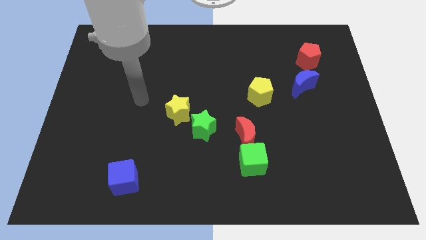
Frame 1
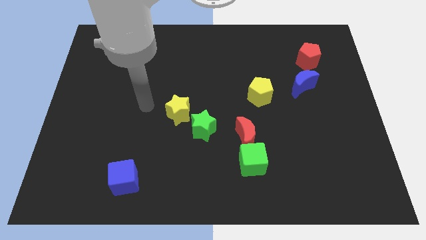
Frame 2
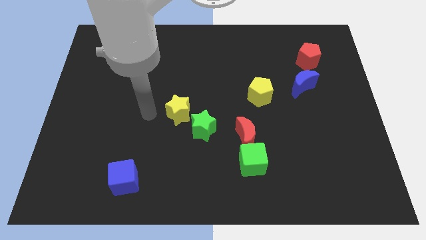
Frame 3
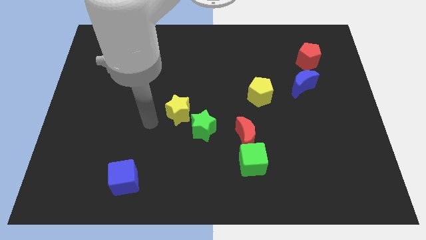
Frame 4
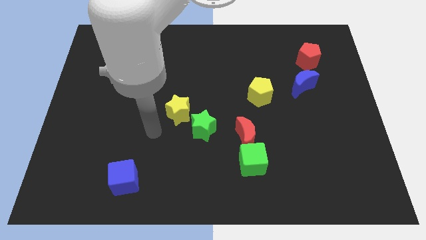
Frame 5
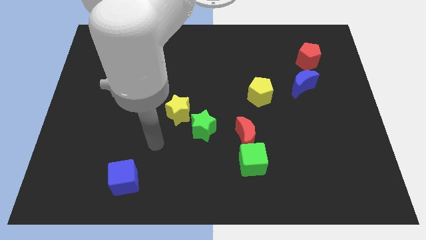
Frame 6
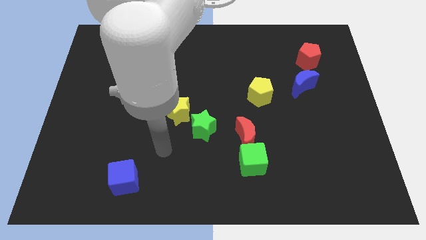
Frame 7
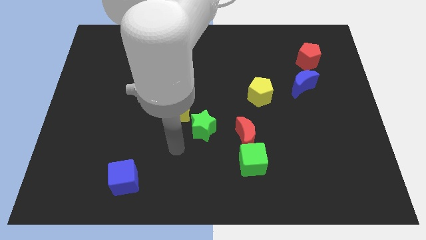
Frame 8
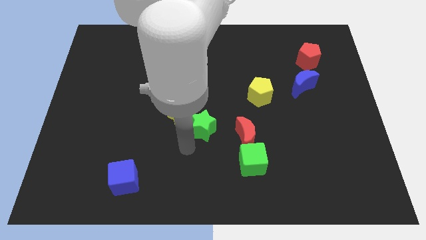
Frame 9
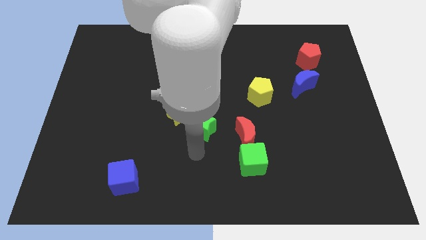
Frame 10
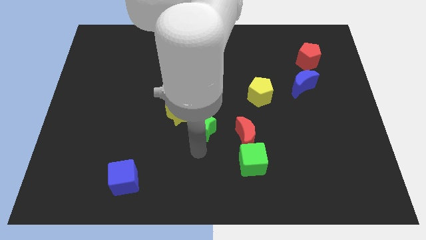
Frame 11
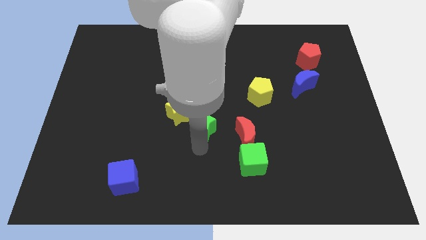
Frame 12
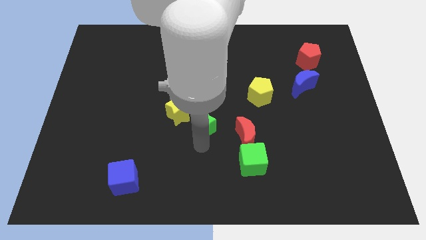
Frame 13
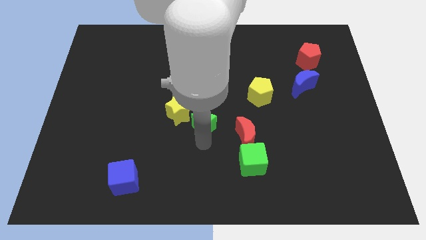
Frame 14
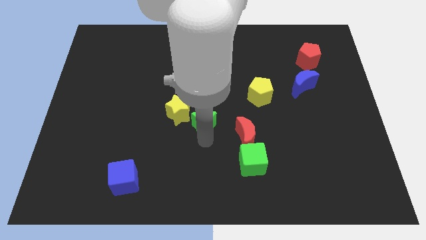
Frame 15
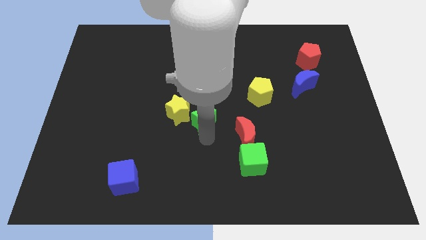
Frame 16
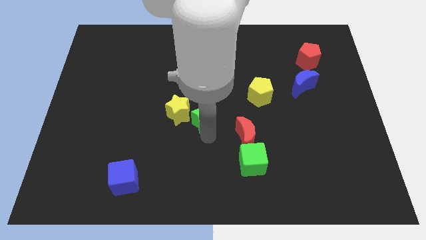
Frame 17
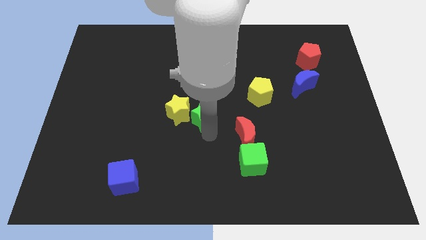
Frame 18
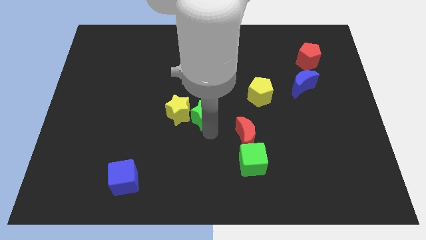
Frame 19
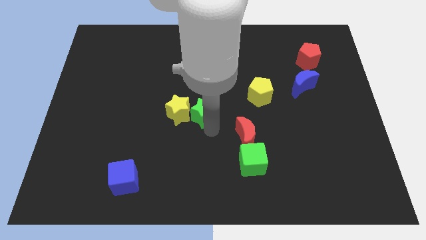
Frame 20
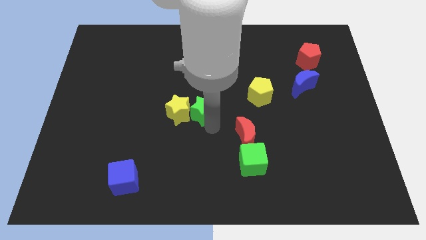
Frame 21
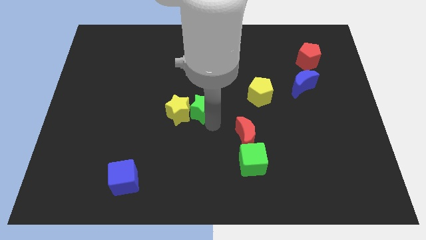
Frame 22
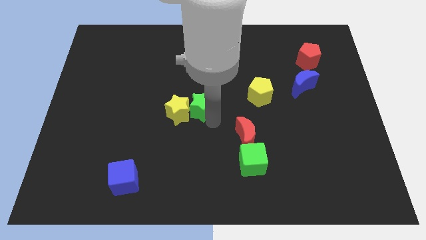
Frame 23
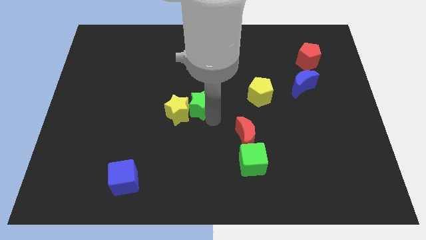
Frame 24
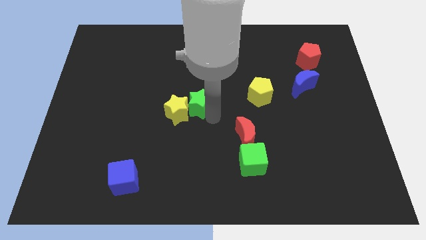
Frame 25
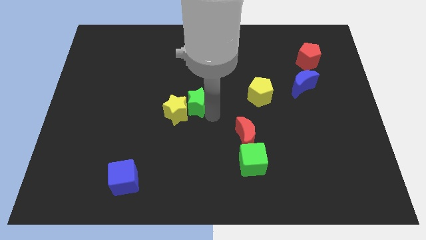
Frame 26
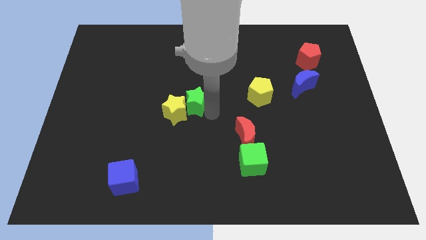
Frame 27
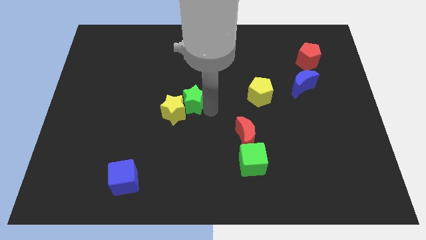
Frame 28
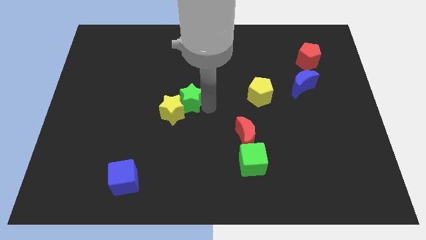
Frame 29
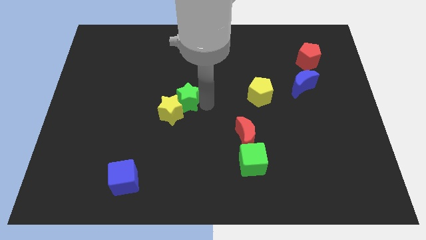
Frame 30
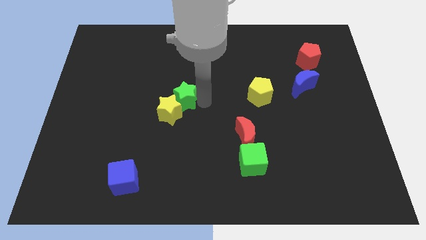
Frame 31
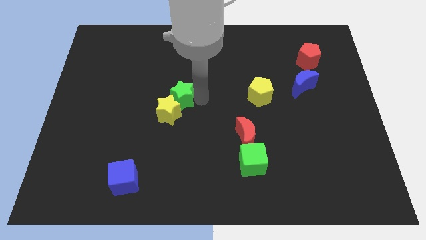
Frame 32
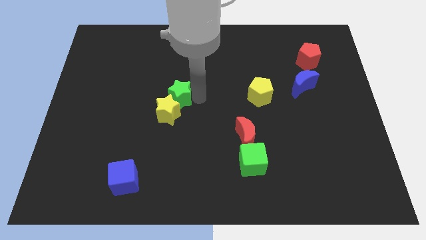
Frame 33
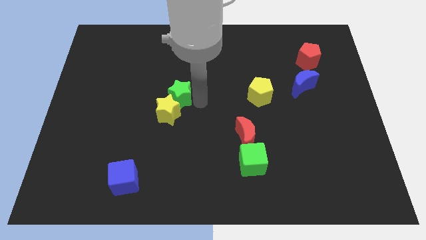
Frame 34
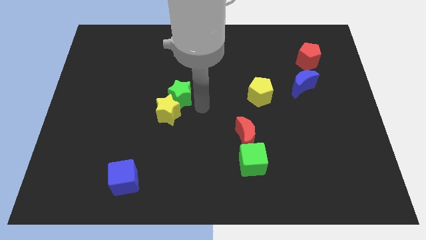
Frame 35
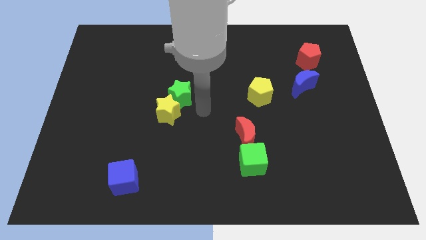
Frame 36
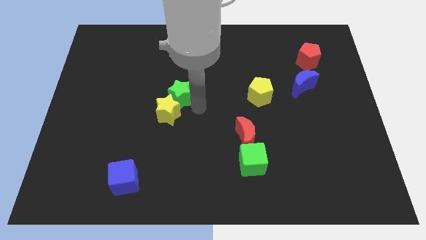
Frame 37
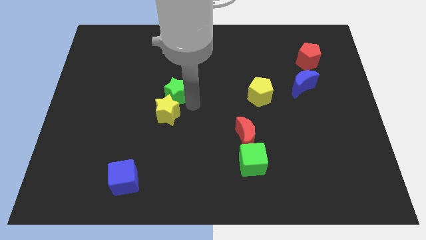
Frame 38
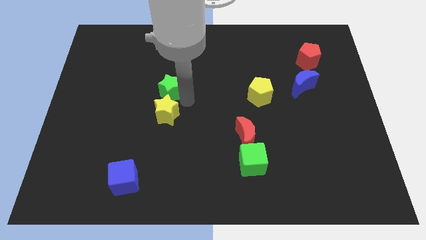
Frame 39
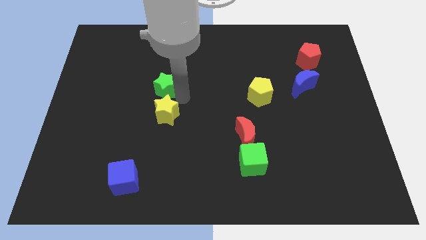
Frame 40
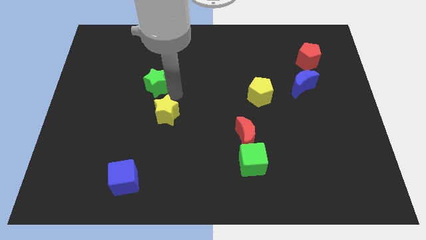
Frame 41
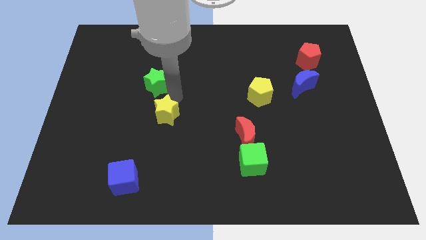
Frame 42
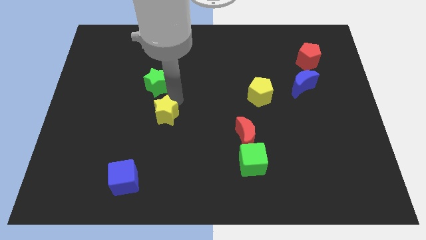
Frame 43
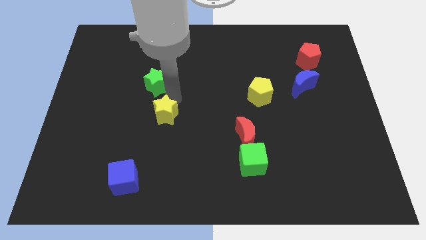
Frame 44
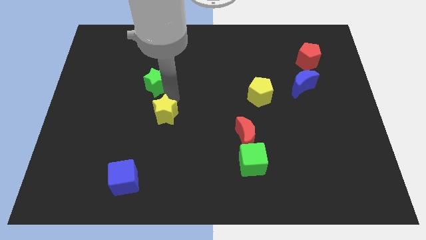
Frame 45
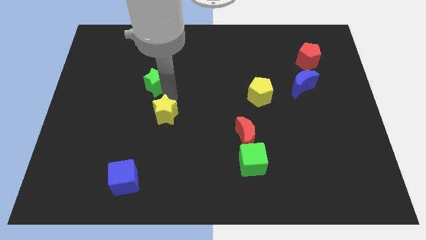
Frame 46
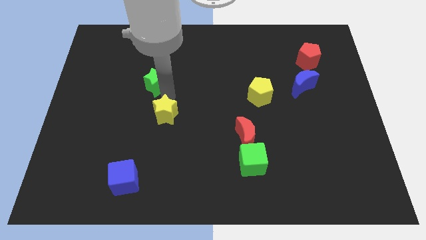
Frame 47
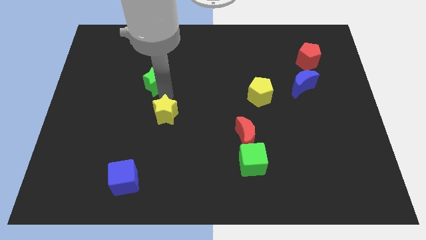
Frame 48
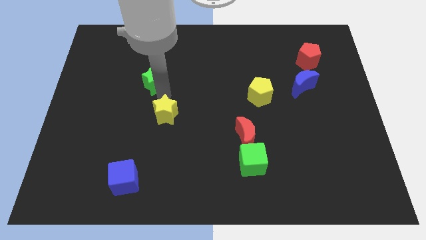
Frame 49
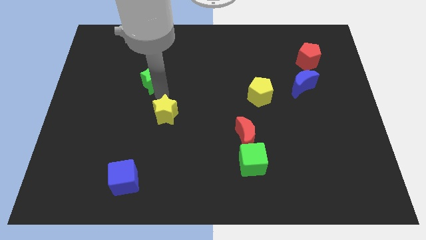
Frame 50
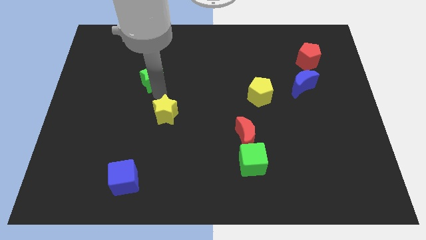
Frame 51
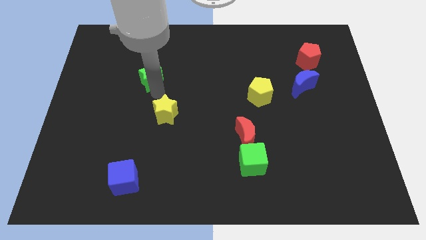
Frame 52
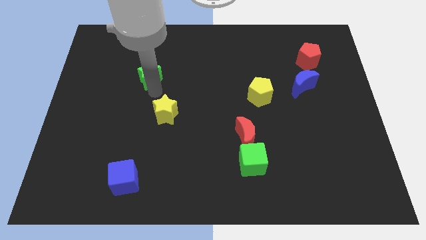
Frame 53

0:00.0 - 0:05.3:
move the green star up and left

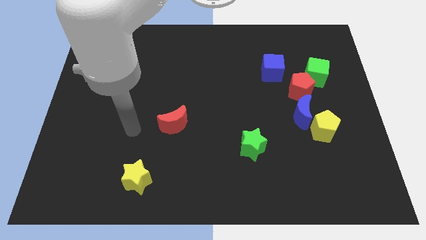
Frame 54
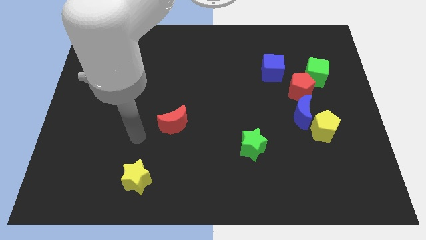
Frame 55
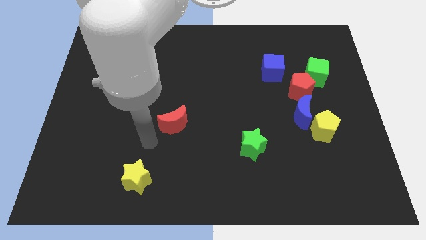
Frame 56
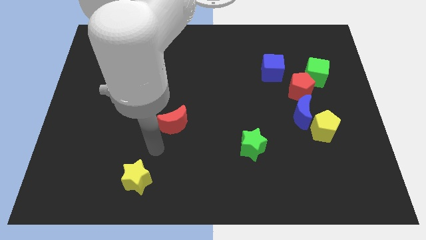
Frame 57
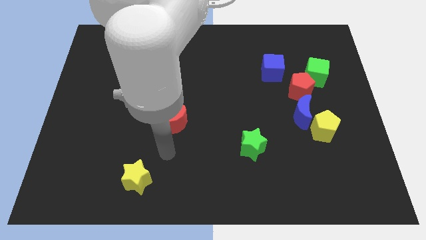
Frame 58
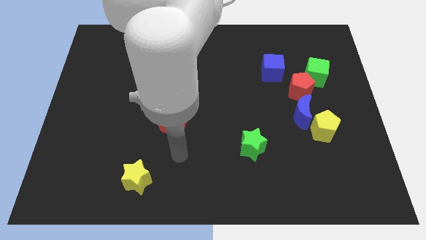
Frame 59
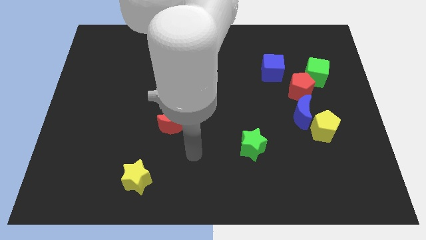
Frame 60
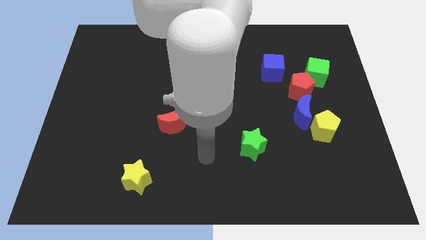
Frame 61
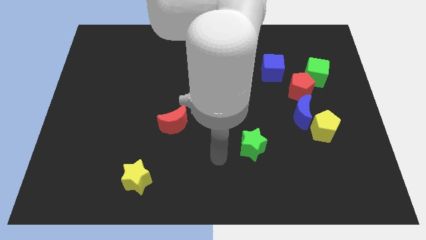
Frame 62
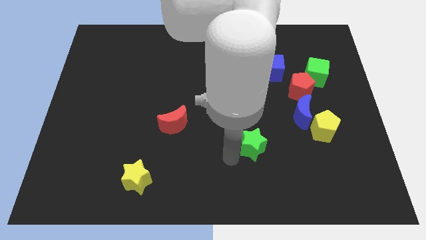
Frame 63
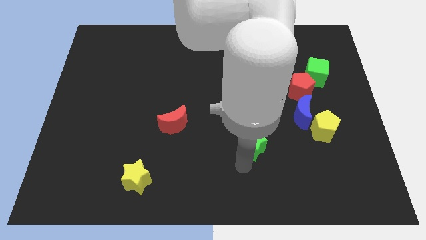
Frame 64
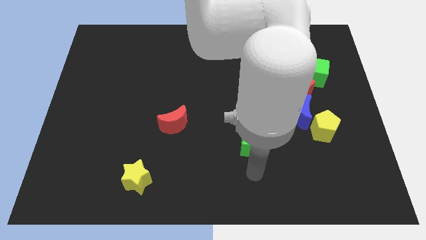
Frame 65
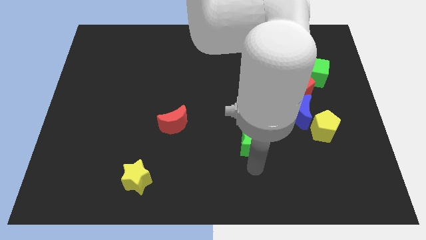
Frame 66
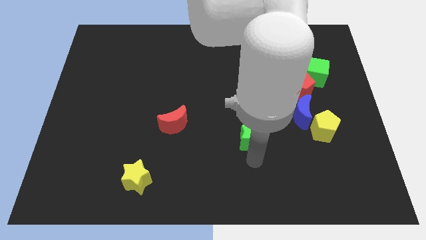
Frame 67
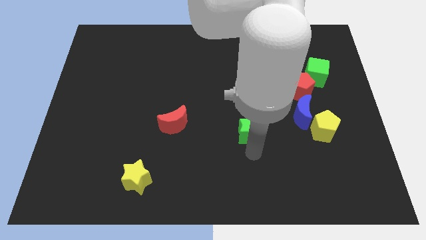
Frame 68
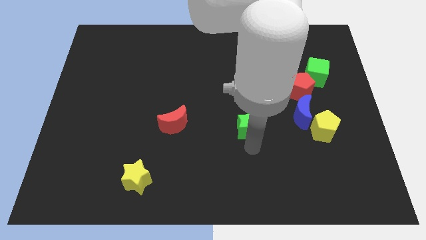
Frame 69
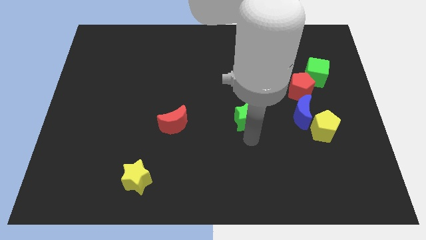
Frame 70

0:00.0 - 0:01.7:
slightly move the green star upwards

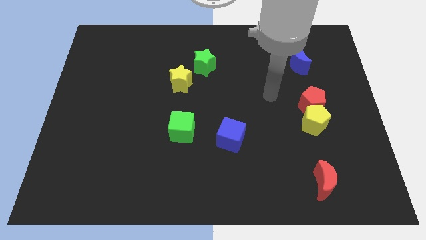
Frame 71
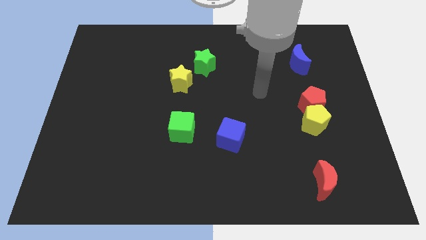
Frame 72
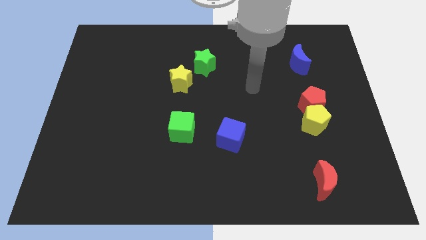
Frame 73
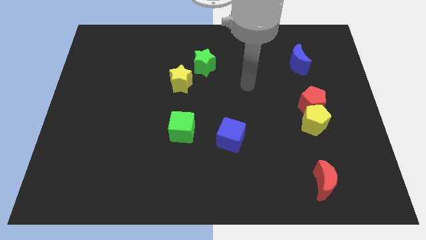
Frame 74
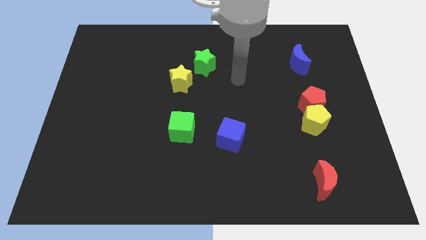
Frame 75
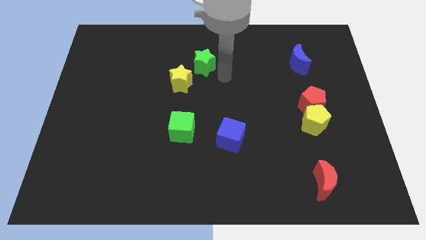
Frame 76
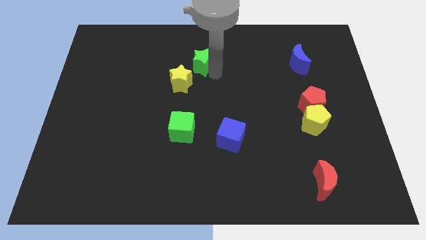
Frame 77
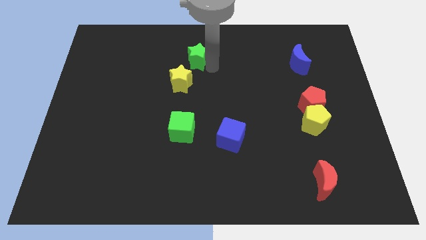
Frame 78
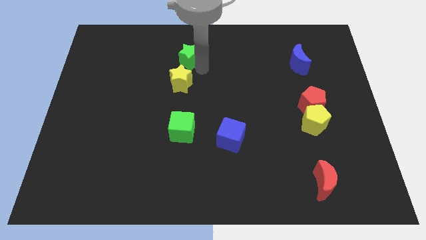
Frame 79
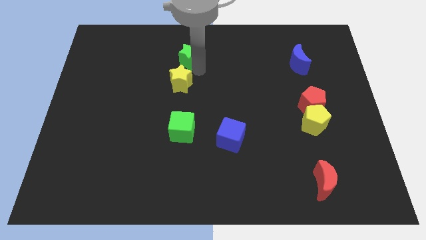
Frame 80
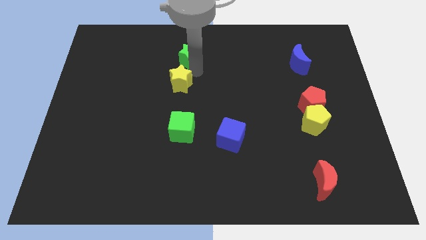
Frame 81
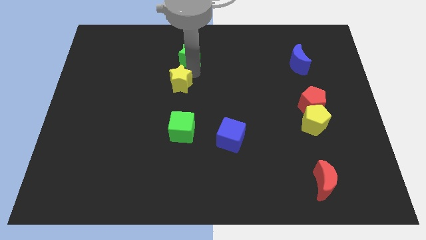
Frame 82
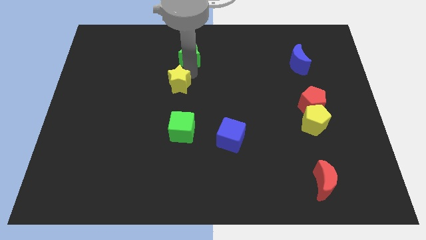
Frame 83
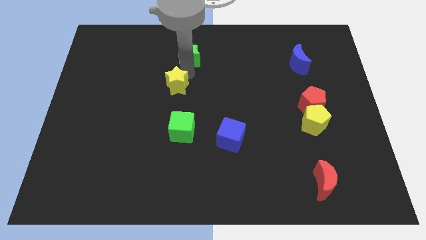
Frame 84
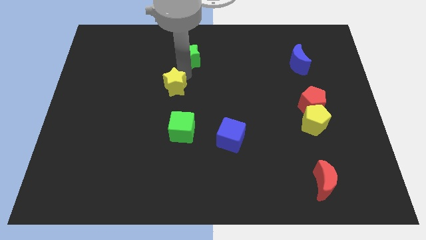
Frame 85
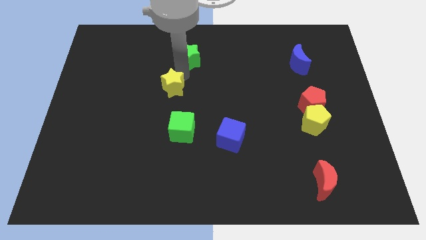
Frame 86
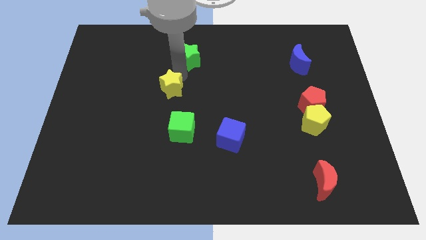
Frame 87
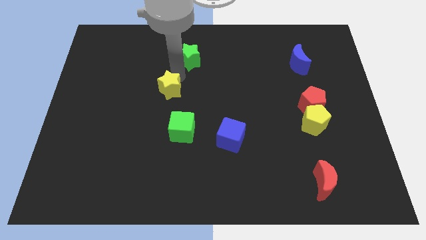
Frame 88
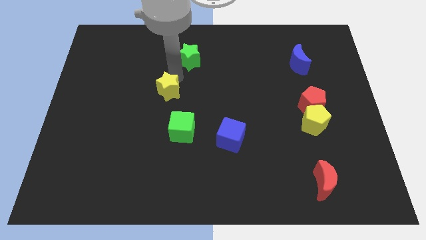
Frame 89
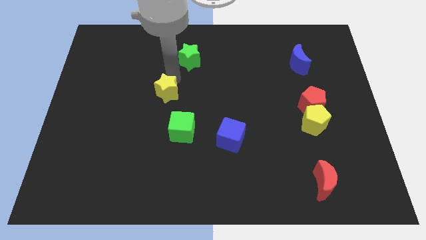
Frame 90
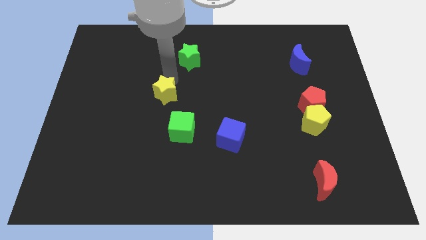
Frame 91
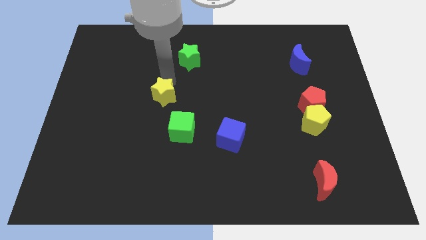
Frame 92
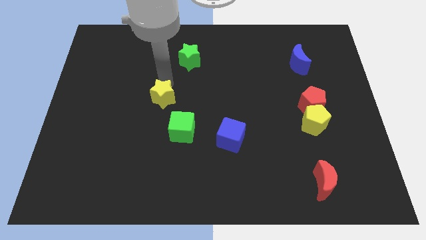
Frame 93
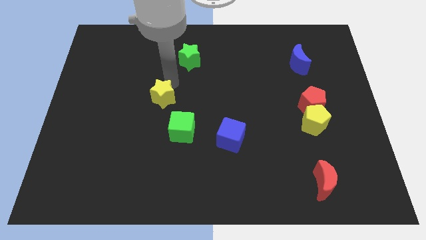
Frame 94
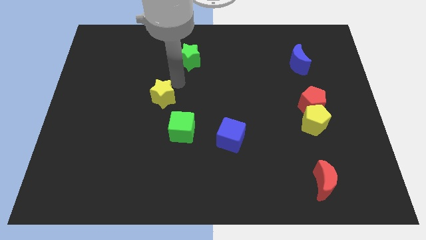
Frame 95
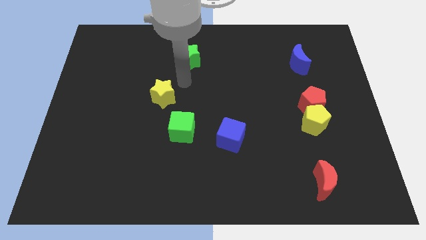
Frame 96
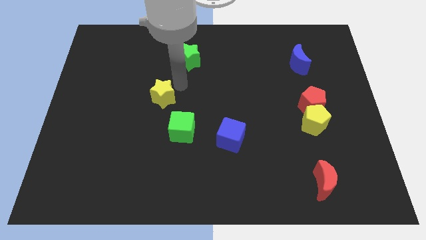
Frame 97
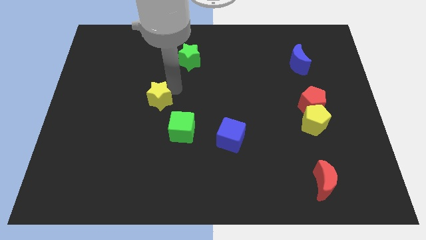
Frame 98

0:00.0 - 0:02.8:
move the yellow star down and left diagonally a little
